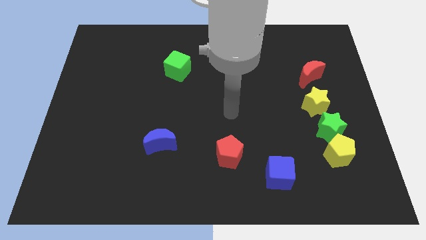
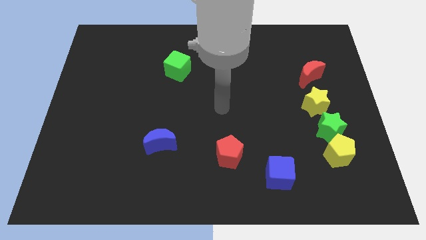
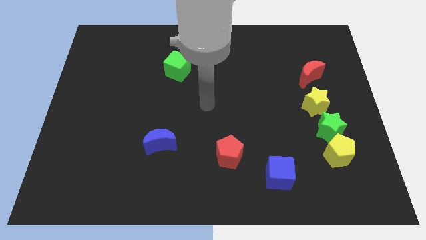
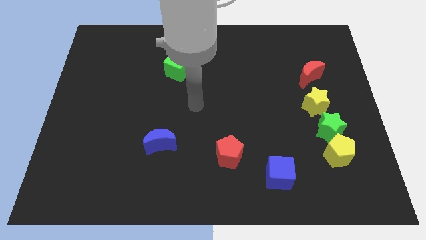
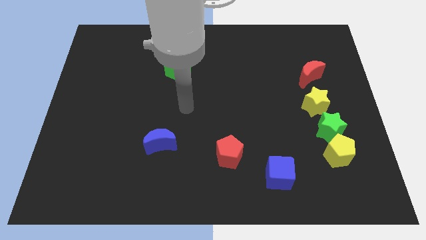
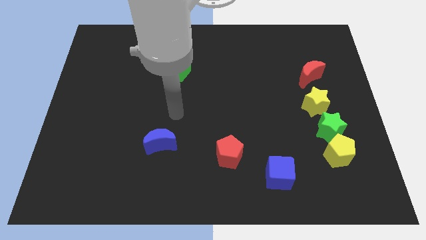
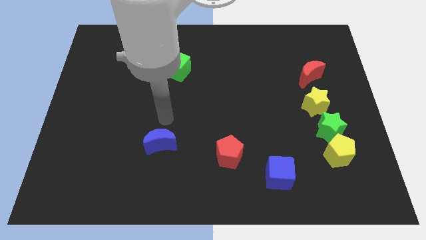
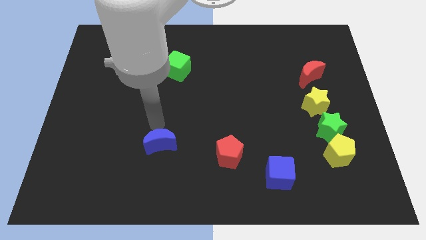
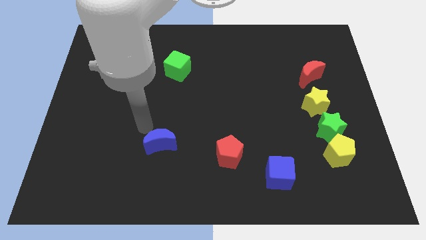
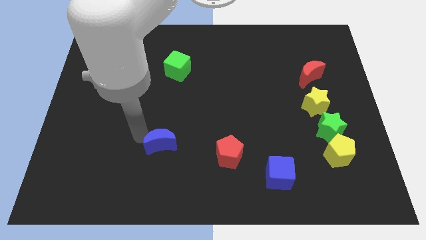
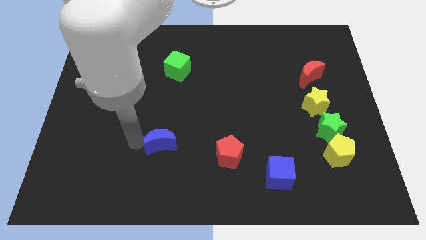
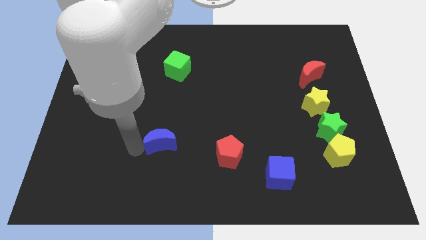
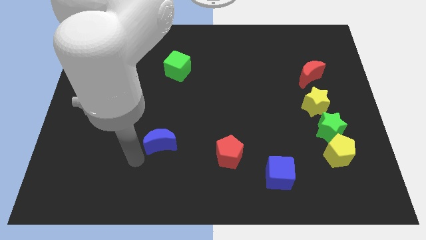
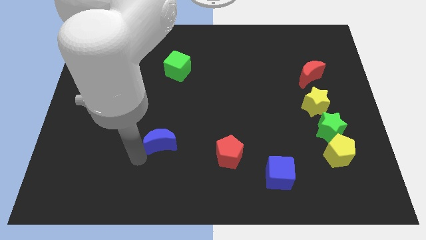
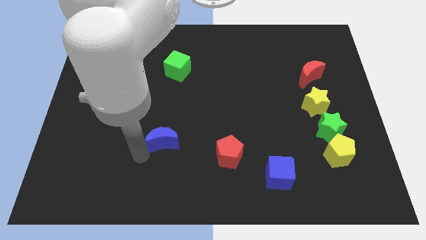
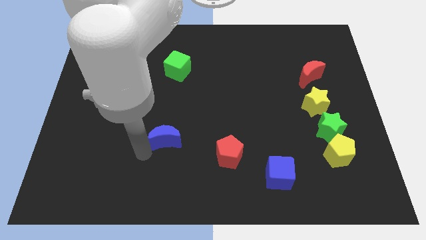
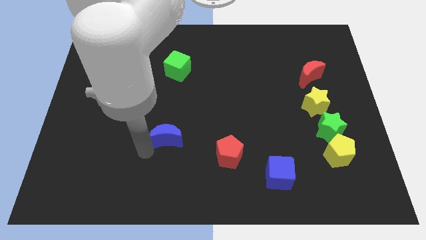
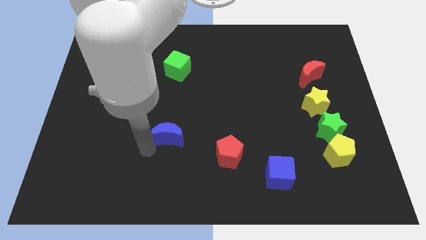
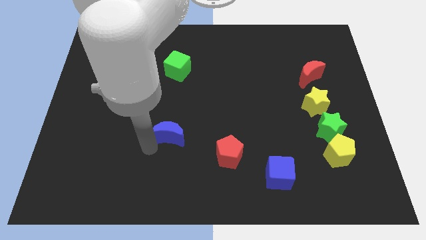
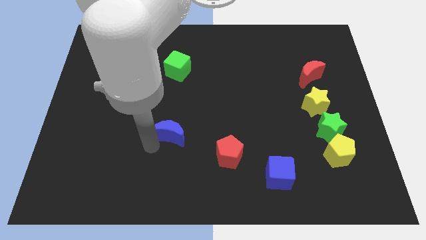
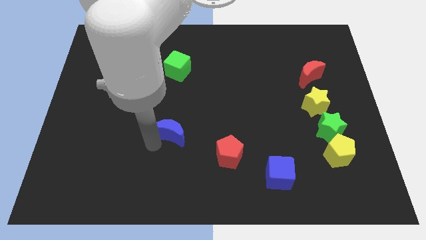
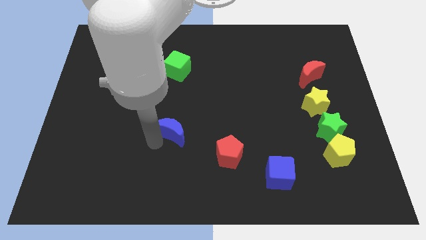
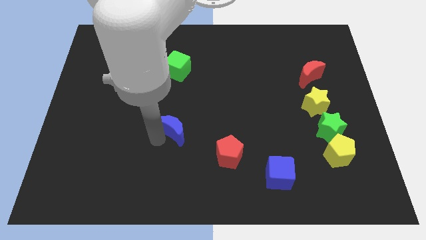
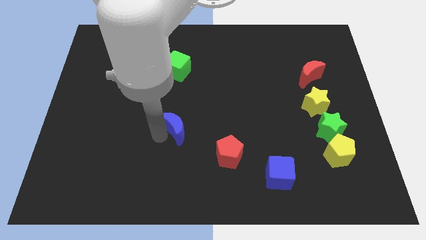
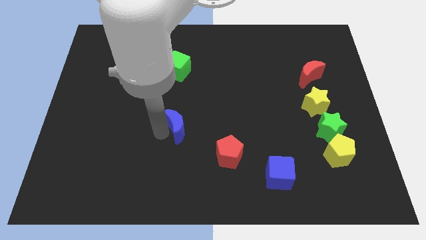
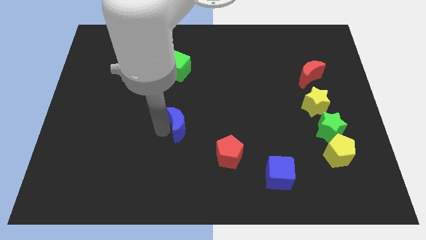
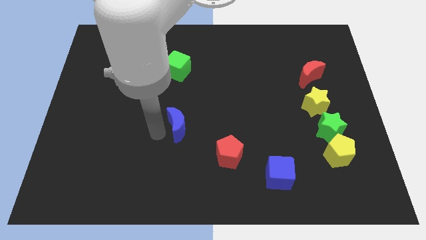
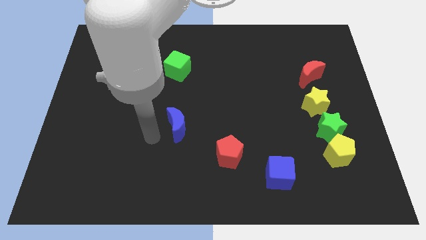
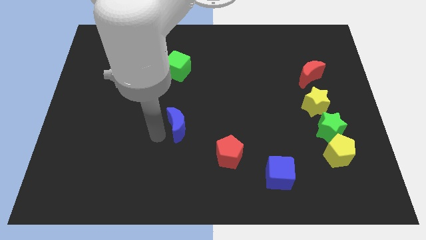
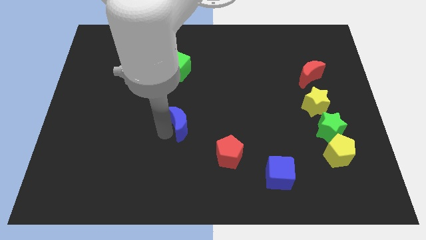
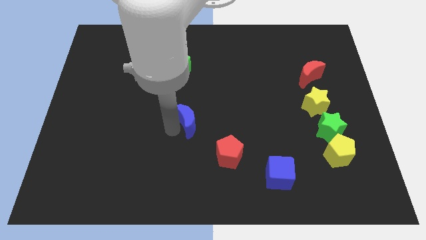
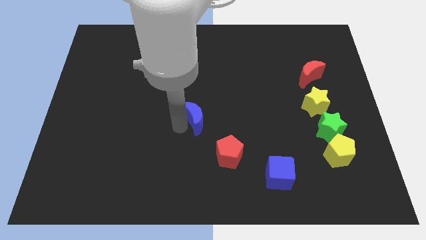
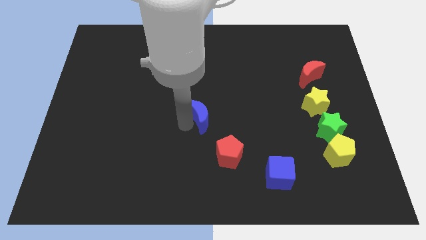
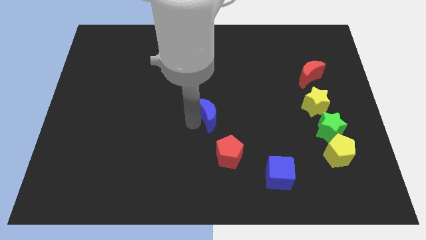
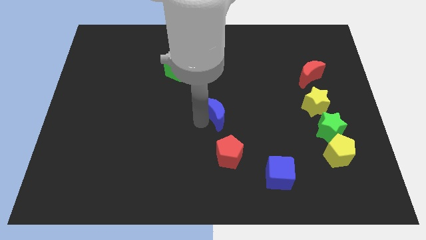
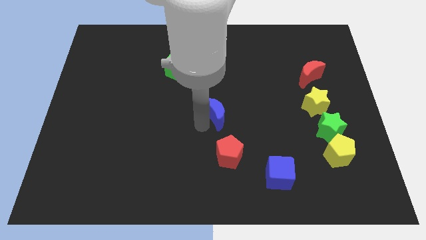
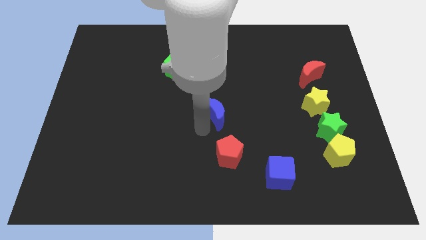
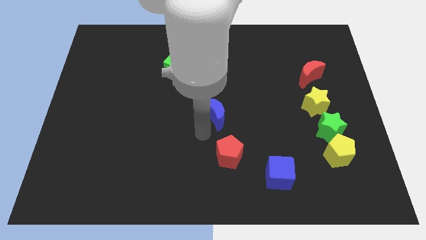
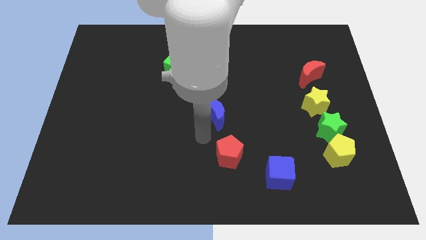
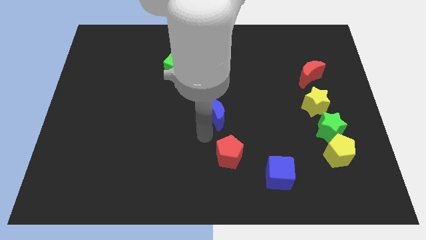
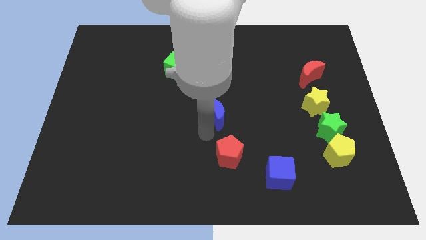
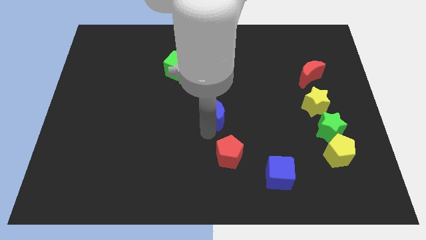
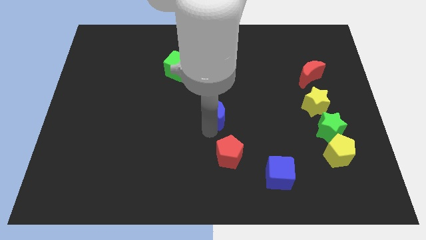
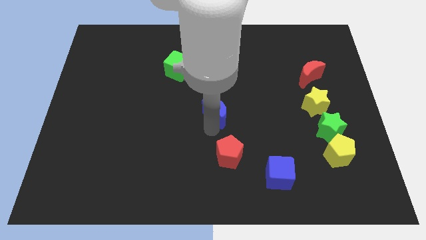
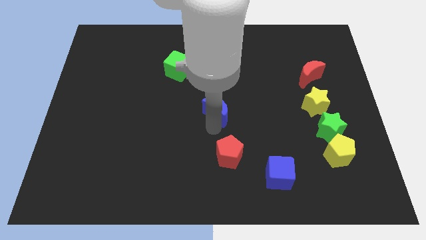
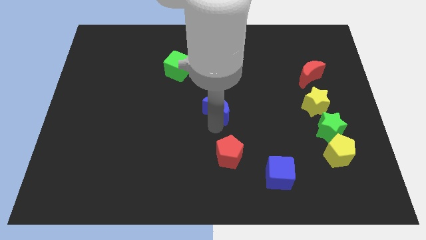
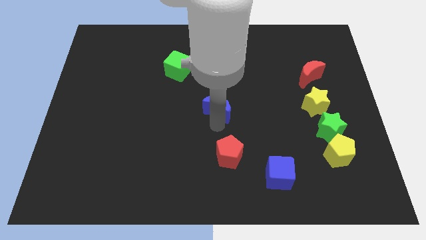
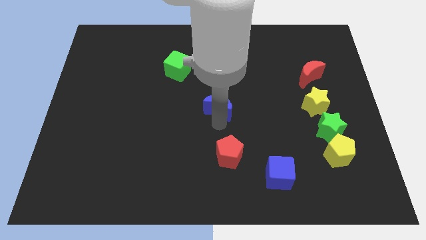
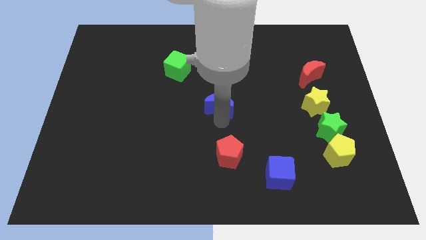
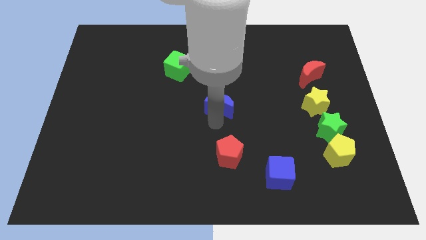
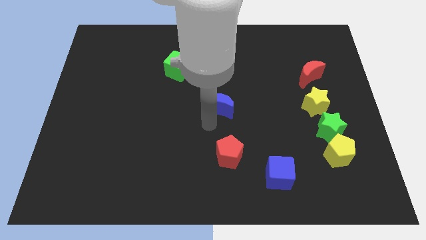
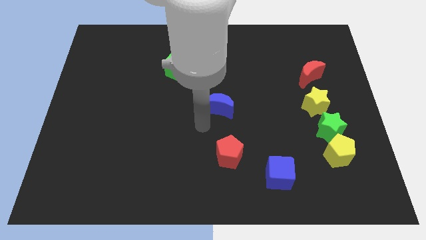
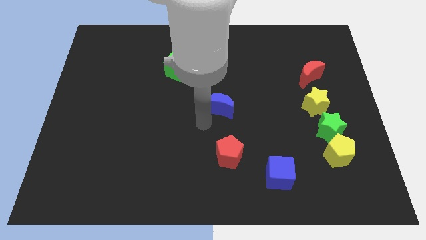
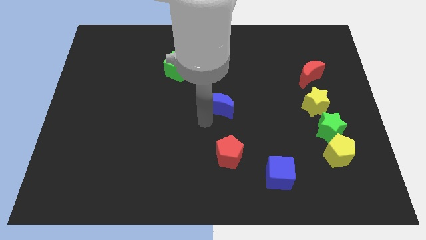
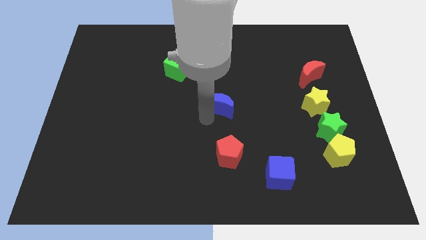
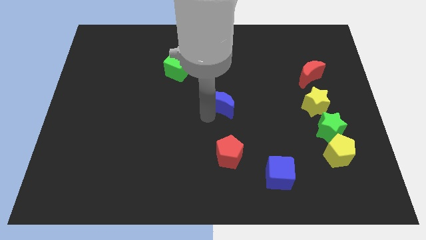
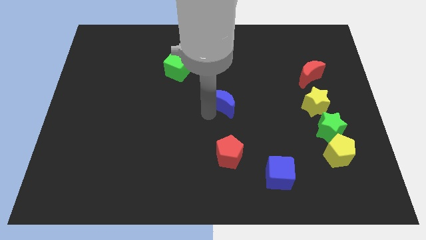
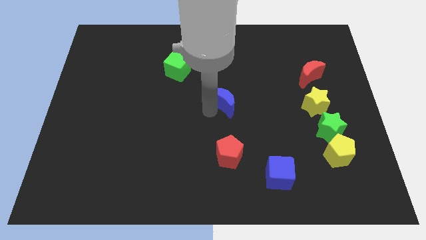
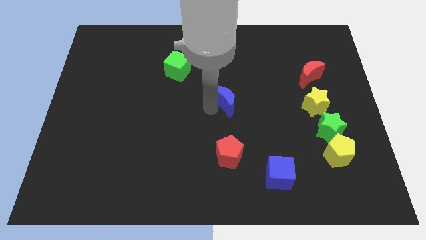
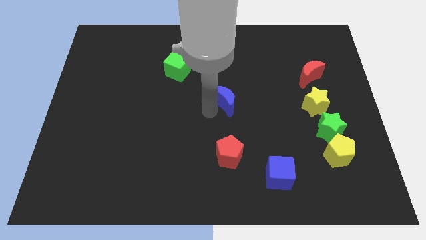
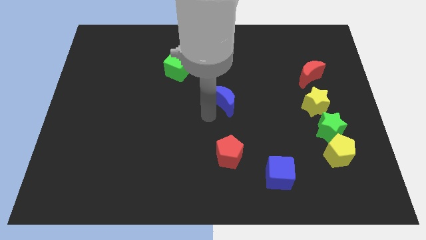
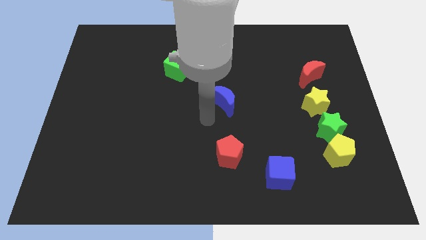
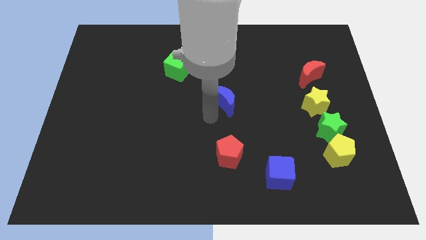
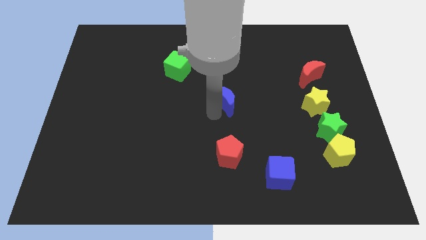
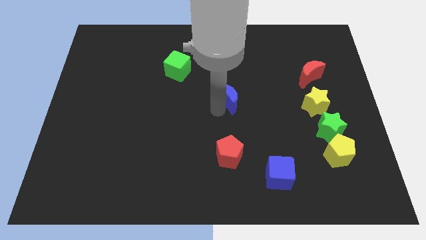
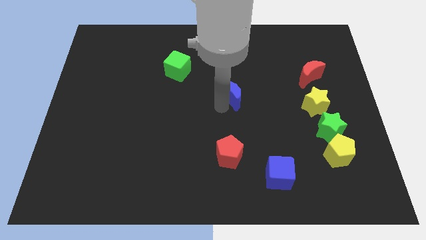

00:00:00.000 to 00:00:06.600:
slide the blue moon up and then right

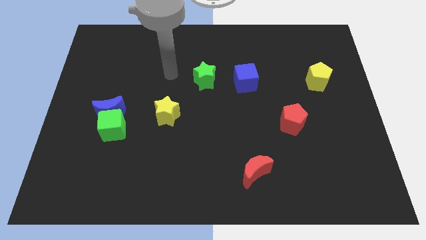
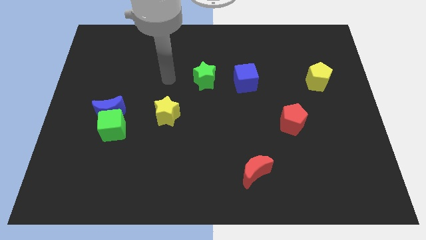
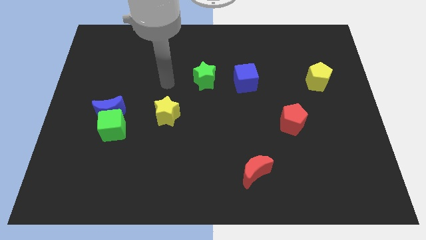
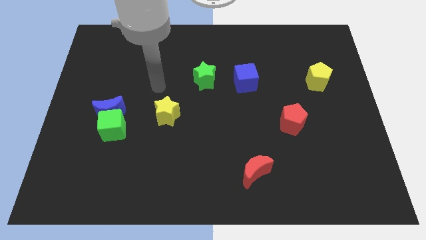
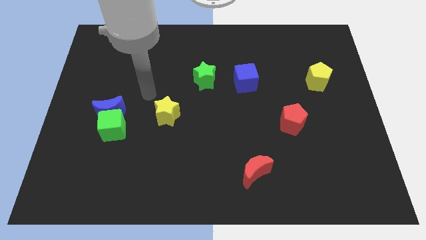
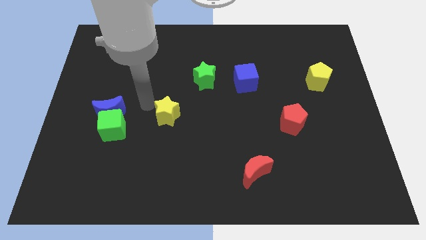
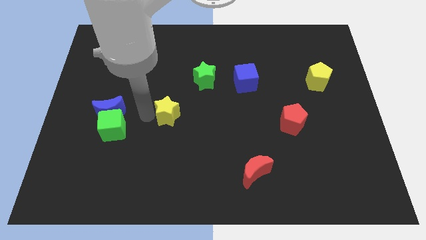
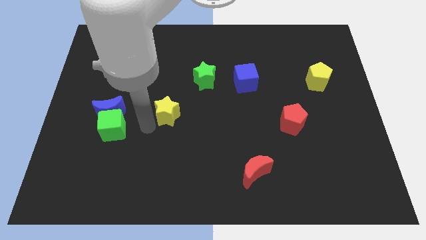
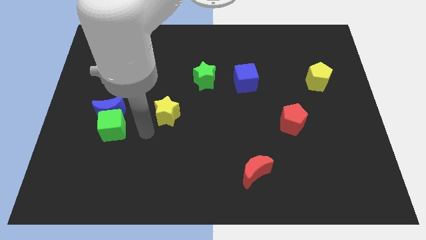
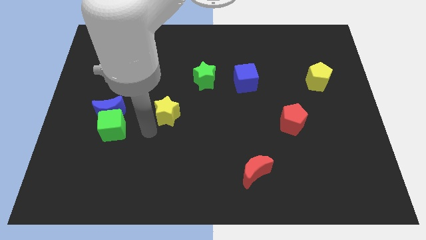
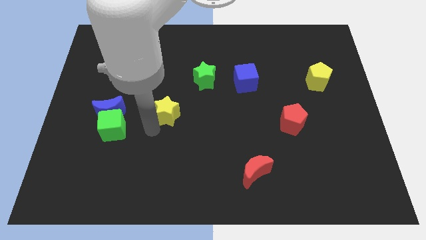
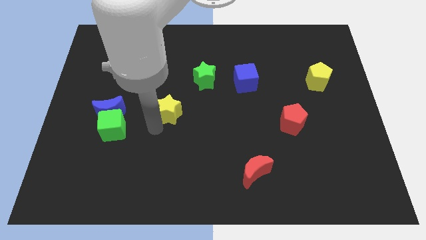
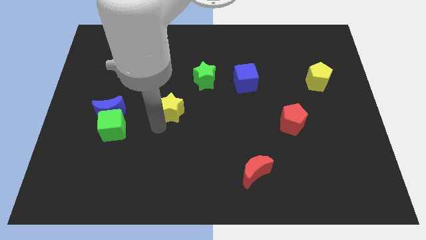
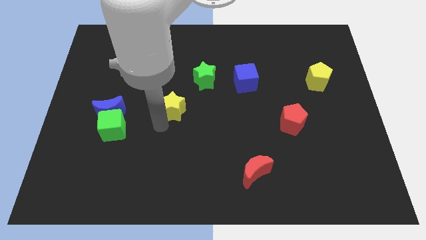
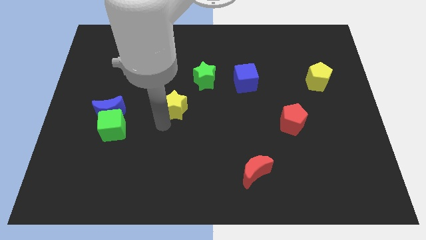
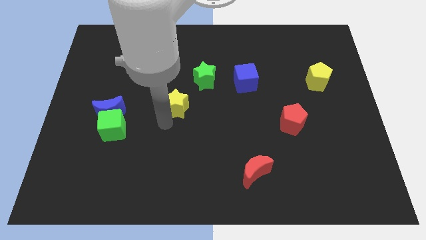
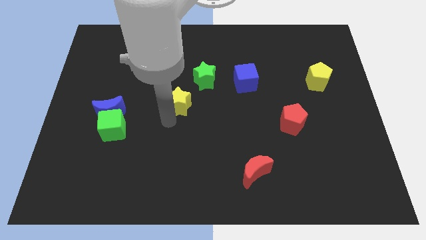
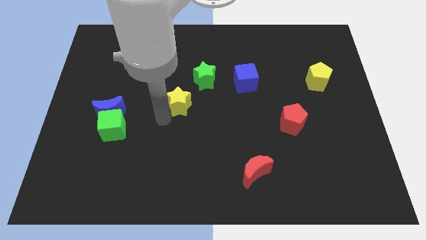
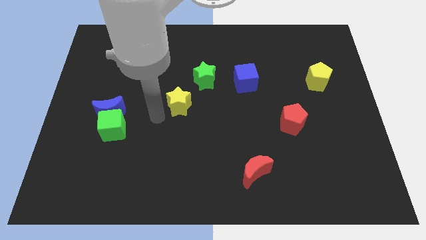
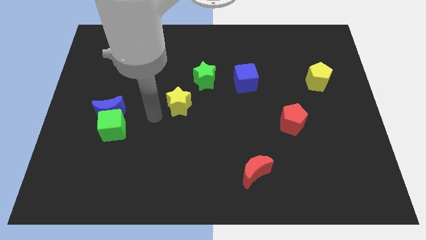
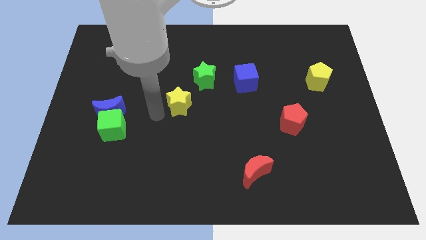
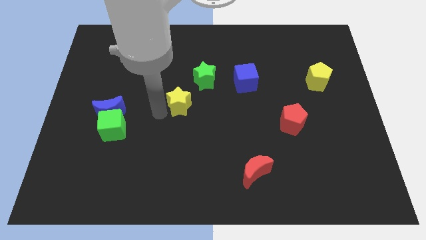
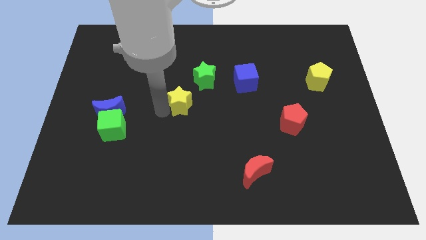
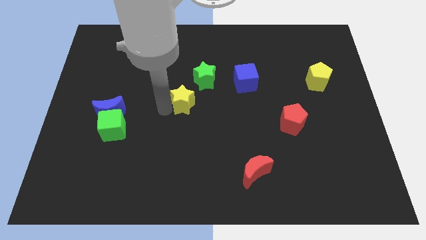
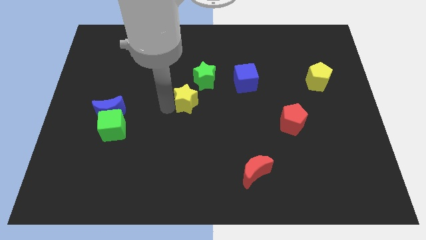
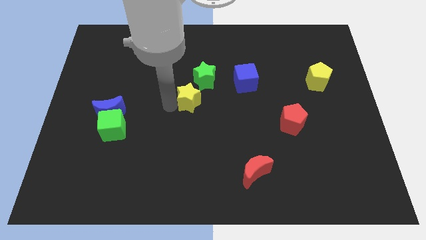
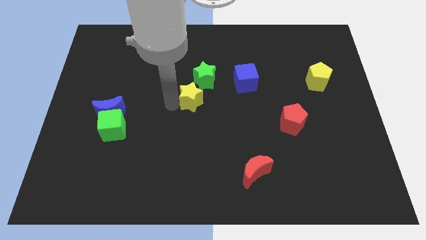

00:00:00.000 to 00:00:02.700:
push the yellow star diagonally up and to the right a bit
